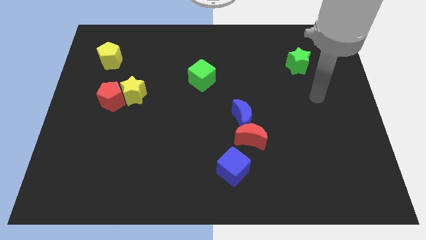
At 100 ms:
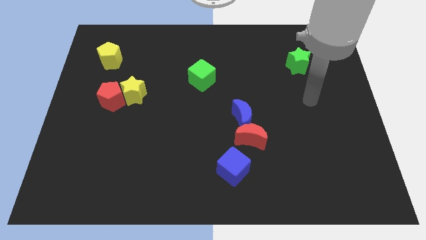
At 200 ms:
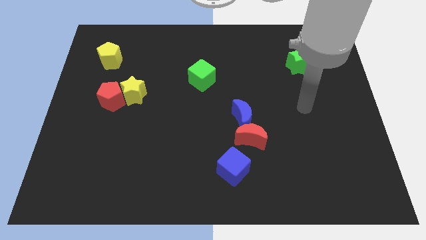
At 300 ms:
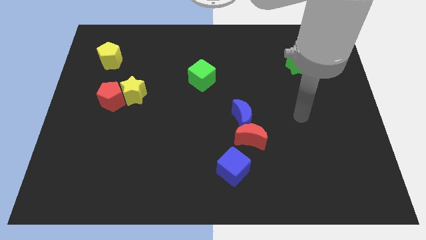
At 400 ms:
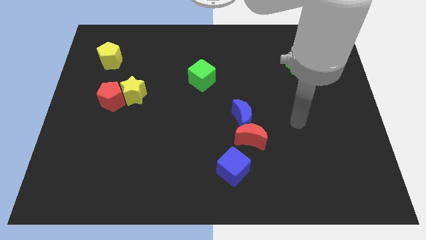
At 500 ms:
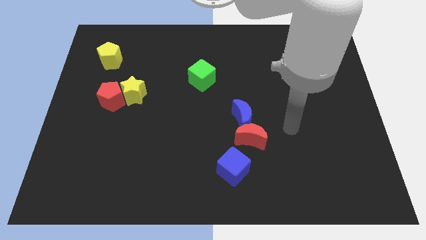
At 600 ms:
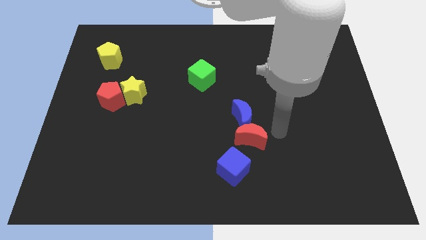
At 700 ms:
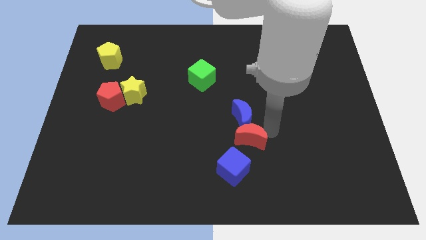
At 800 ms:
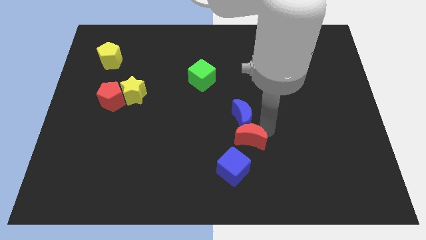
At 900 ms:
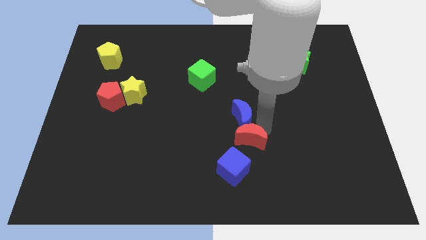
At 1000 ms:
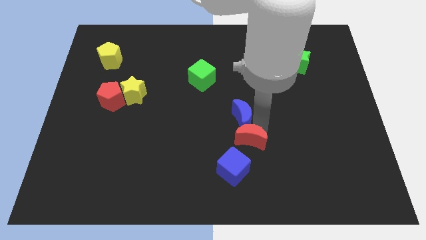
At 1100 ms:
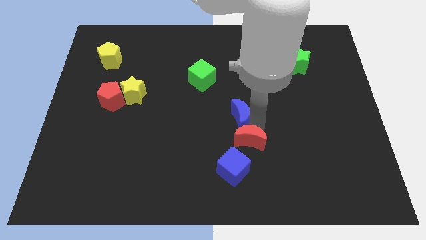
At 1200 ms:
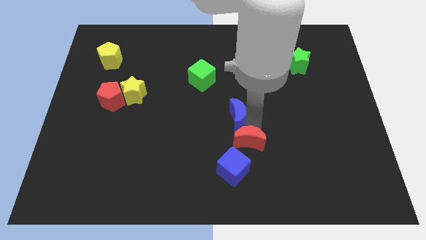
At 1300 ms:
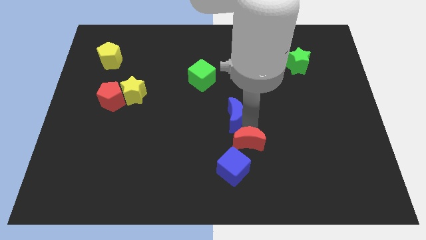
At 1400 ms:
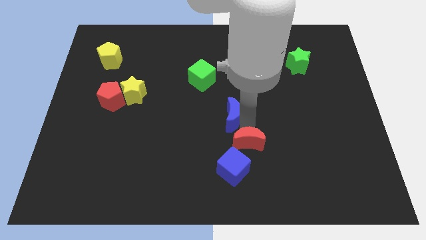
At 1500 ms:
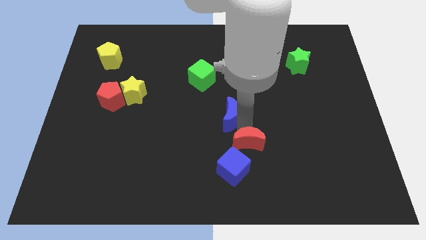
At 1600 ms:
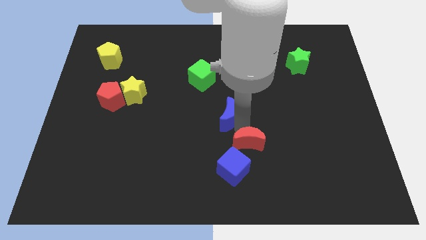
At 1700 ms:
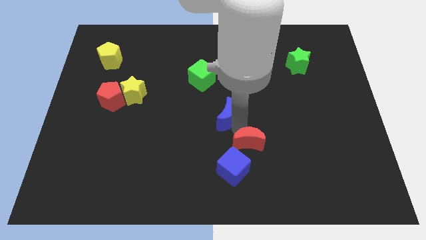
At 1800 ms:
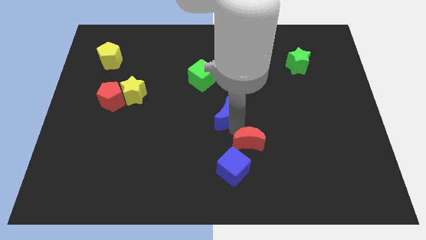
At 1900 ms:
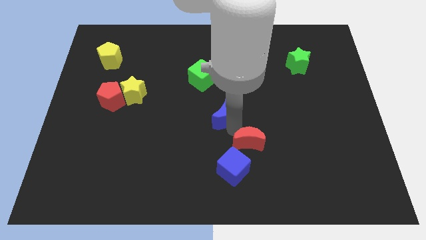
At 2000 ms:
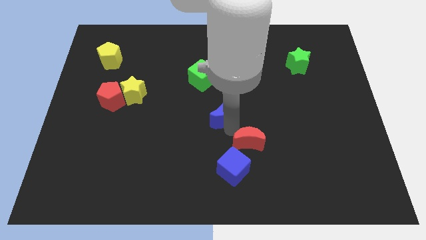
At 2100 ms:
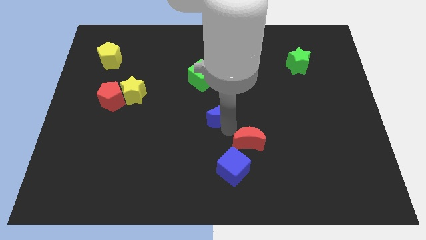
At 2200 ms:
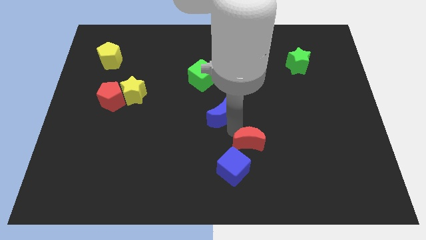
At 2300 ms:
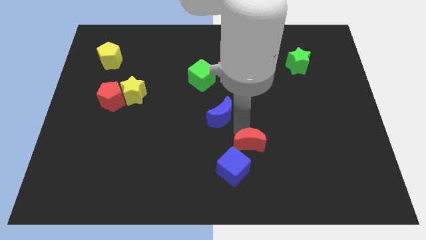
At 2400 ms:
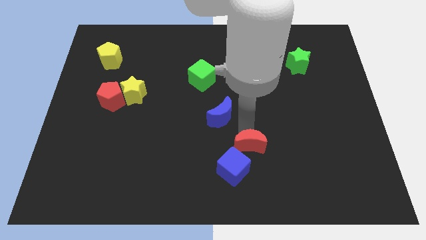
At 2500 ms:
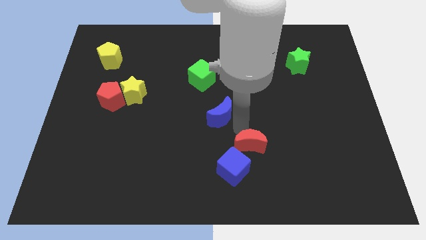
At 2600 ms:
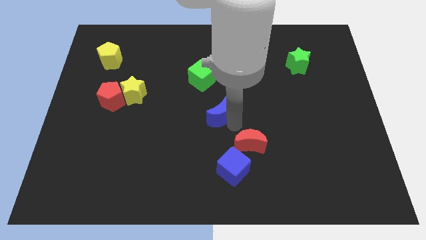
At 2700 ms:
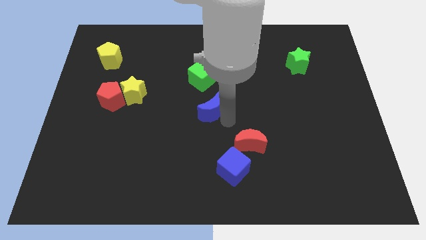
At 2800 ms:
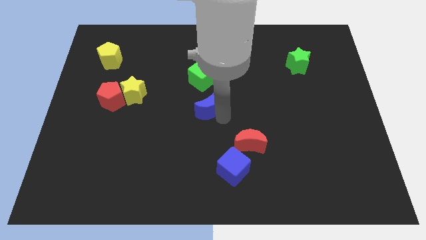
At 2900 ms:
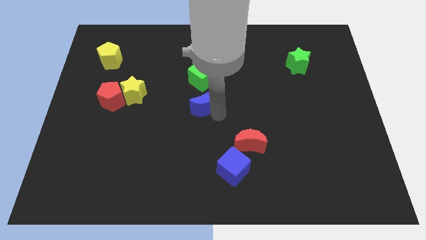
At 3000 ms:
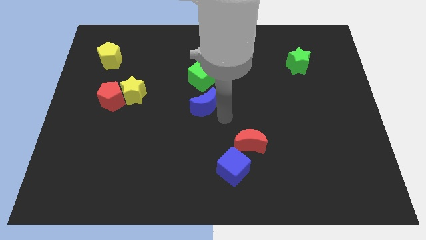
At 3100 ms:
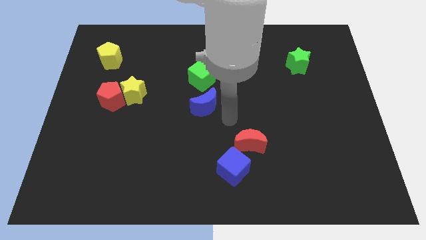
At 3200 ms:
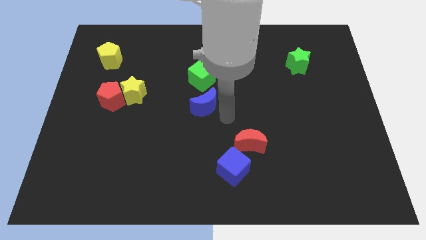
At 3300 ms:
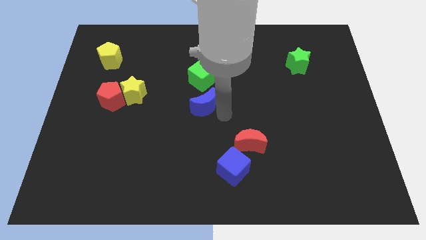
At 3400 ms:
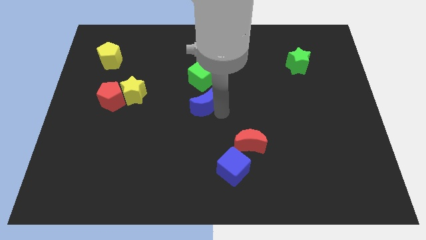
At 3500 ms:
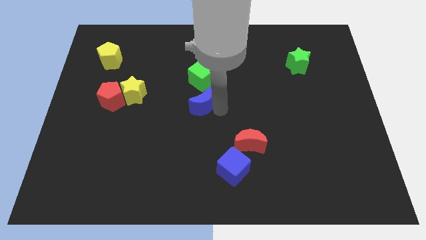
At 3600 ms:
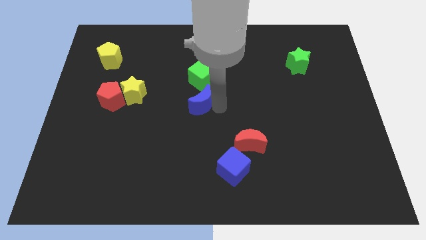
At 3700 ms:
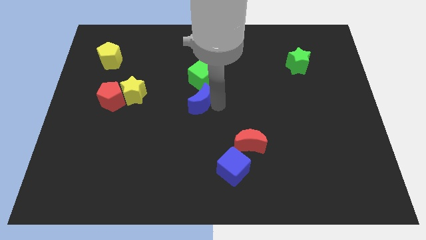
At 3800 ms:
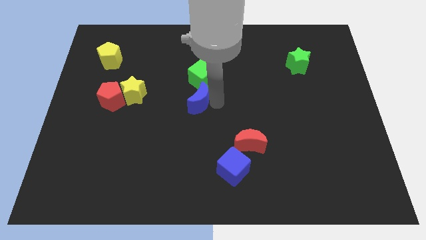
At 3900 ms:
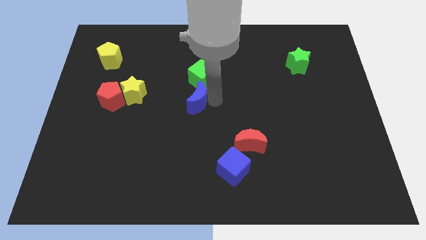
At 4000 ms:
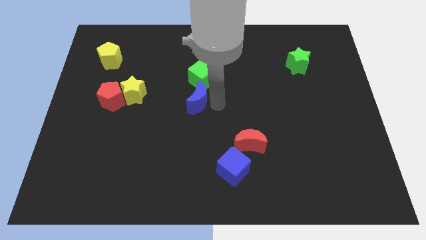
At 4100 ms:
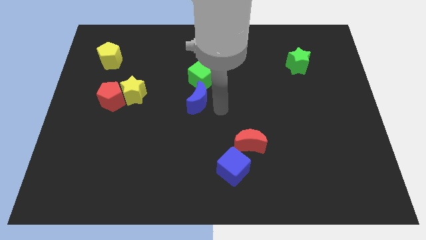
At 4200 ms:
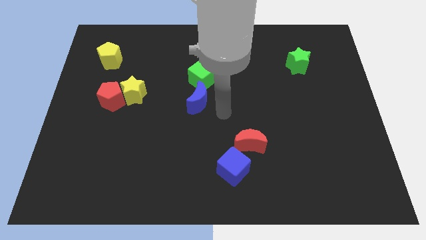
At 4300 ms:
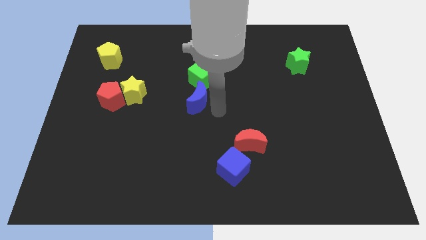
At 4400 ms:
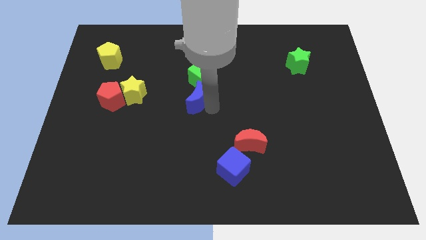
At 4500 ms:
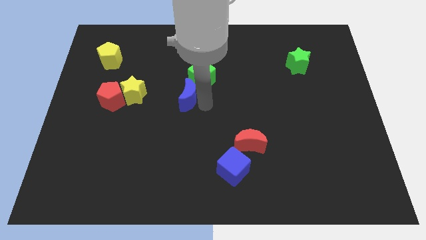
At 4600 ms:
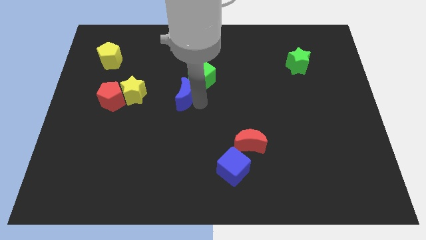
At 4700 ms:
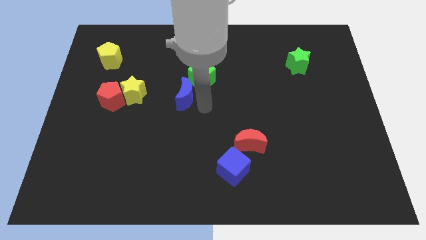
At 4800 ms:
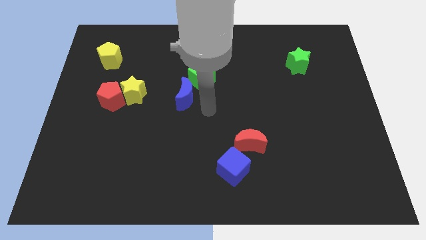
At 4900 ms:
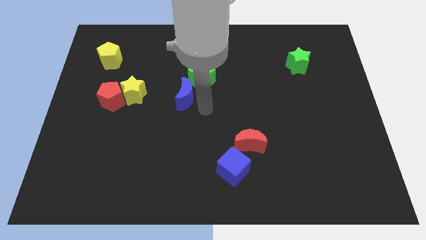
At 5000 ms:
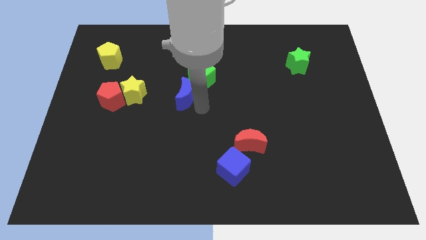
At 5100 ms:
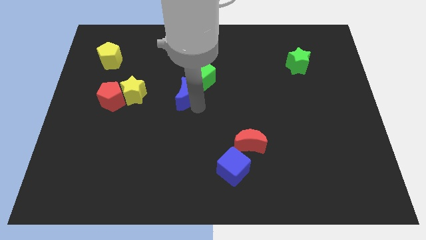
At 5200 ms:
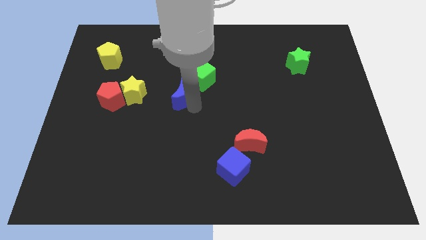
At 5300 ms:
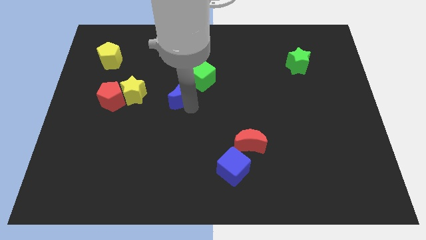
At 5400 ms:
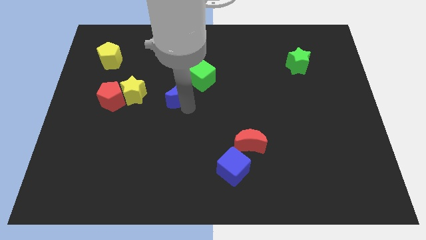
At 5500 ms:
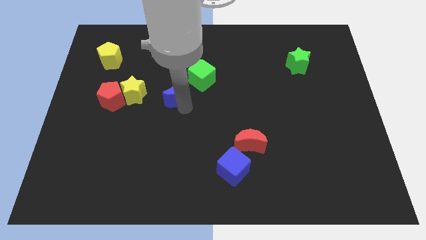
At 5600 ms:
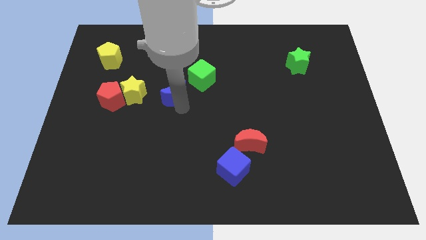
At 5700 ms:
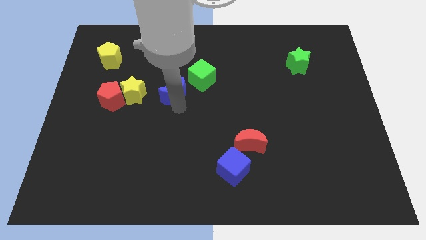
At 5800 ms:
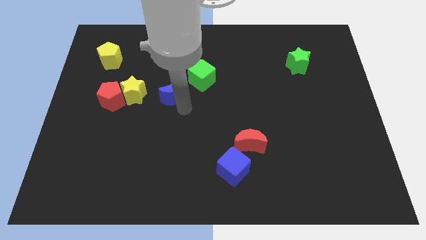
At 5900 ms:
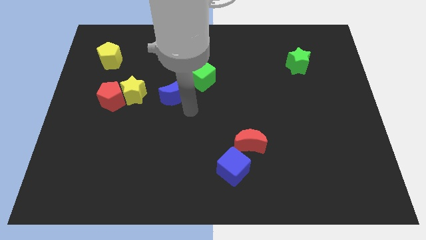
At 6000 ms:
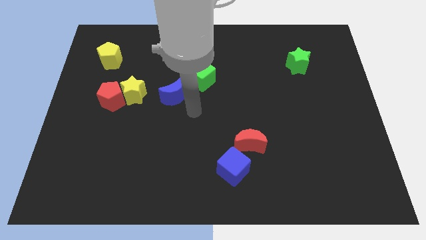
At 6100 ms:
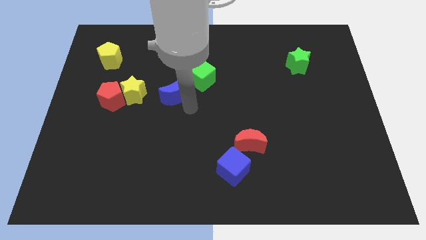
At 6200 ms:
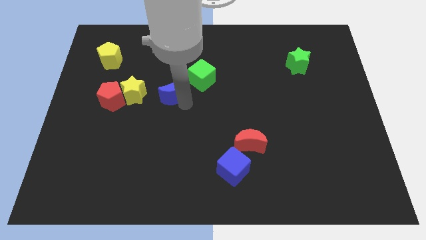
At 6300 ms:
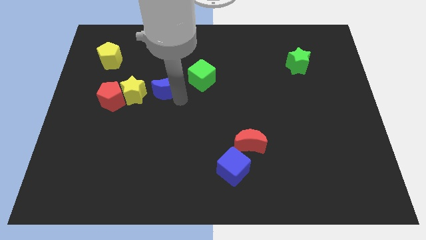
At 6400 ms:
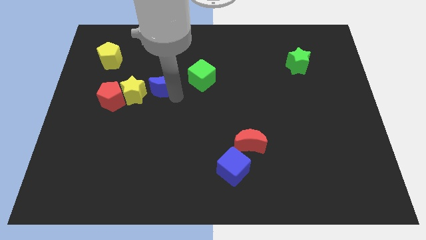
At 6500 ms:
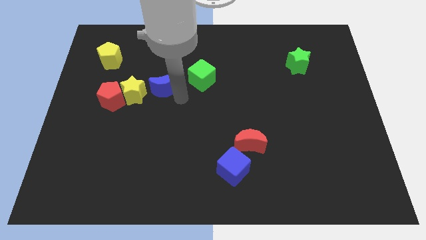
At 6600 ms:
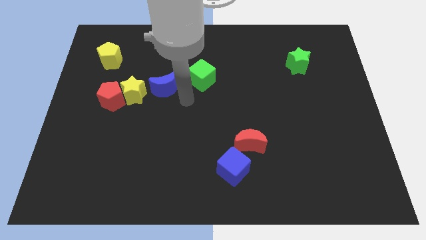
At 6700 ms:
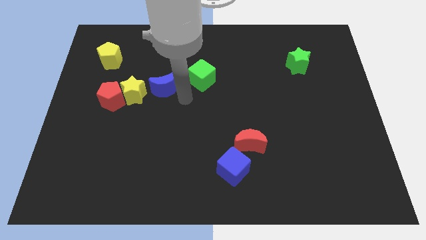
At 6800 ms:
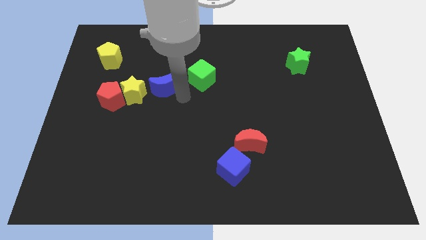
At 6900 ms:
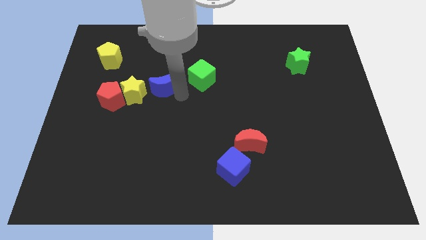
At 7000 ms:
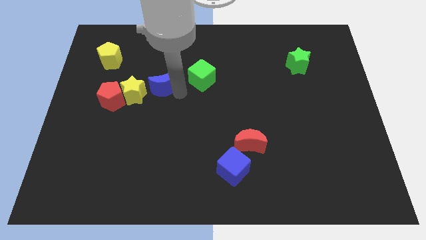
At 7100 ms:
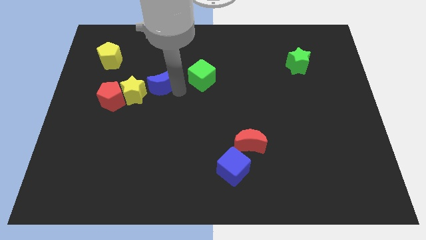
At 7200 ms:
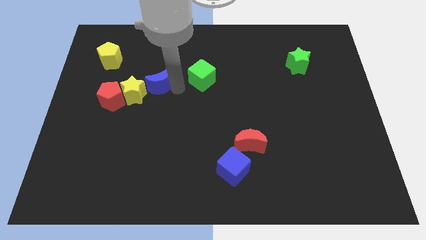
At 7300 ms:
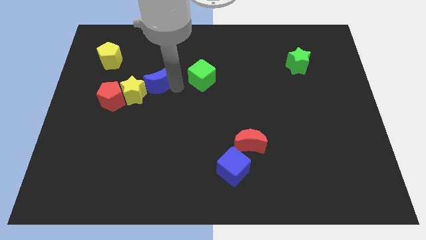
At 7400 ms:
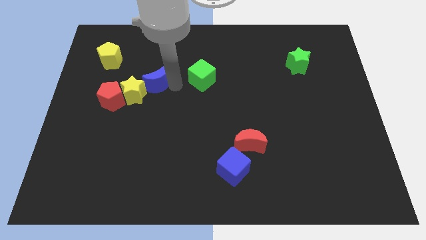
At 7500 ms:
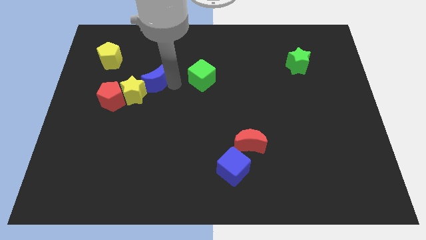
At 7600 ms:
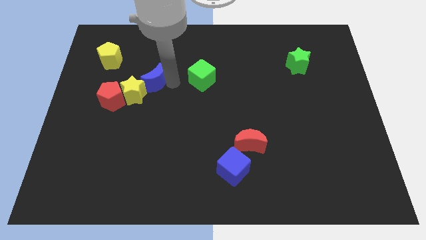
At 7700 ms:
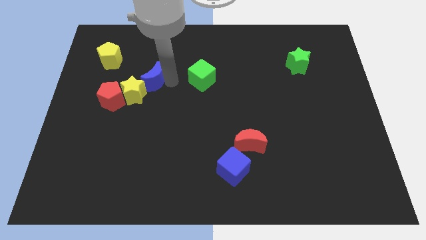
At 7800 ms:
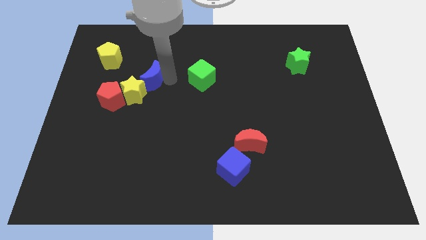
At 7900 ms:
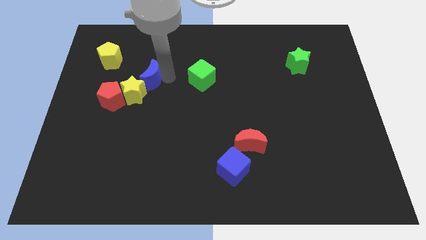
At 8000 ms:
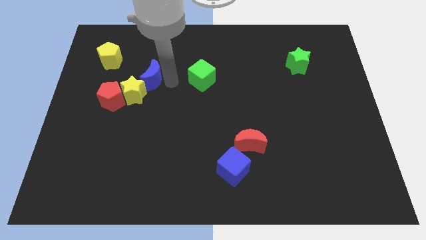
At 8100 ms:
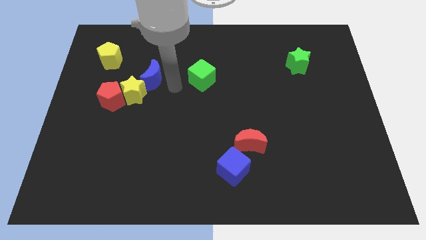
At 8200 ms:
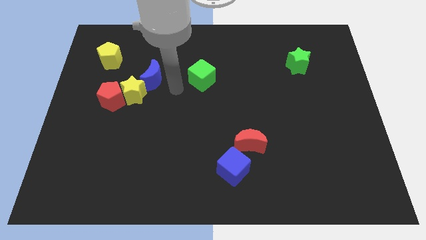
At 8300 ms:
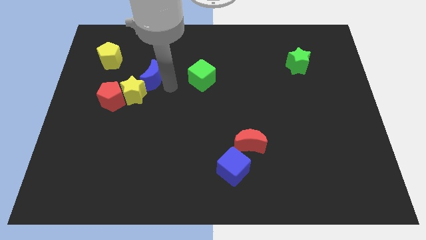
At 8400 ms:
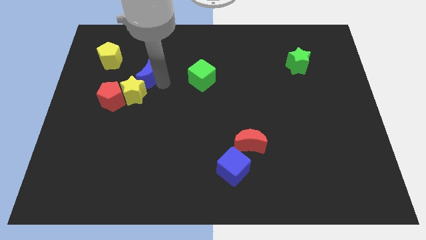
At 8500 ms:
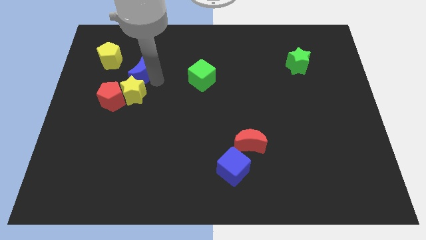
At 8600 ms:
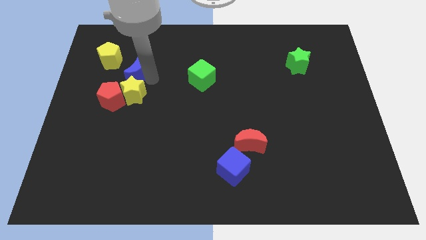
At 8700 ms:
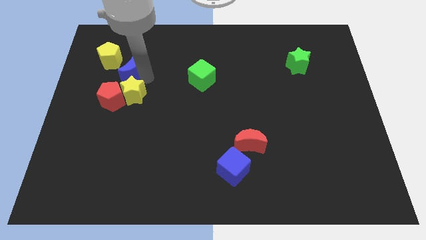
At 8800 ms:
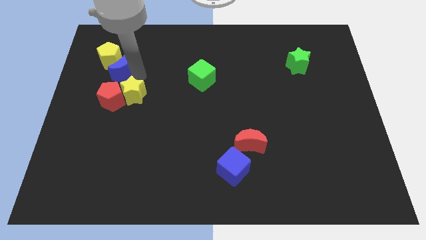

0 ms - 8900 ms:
put the blue moon to the yellow pentagon
